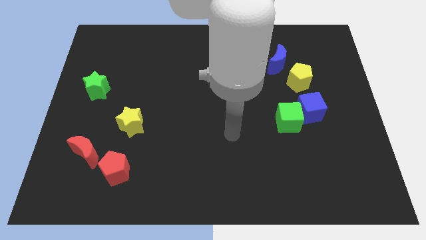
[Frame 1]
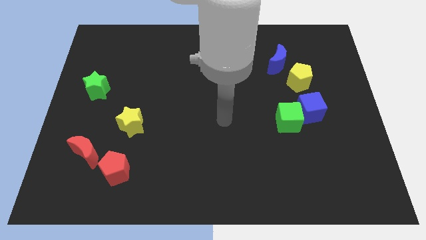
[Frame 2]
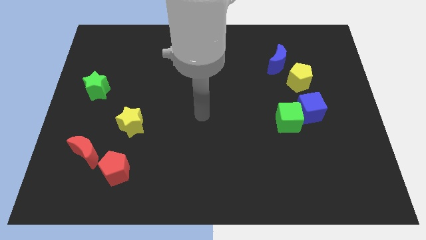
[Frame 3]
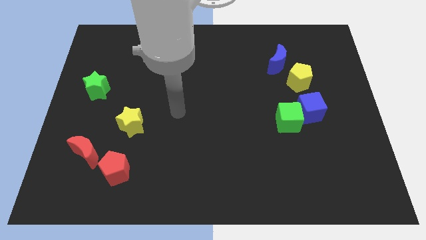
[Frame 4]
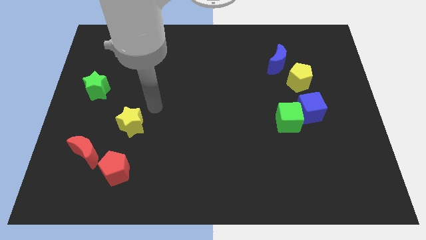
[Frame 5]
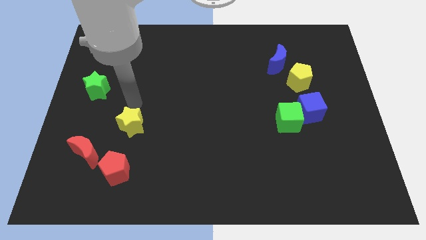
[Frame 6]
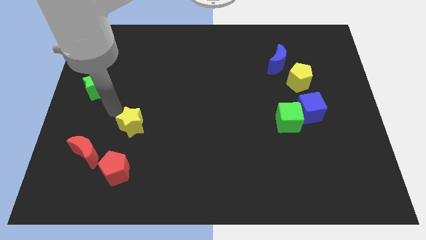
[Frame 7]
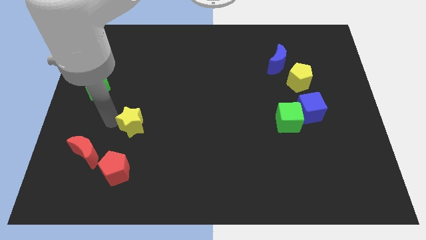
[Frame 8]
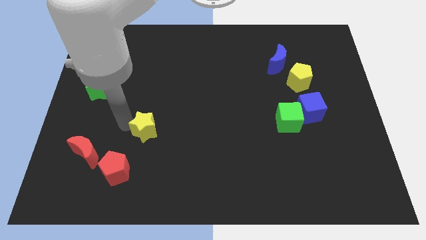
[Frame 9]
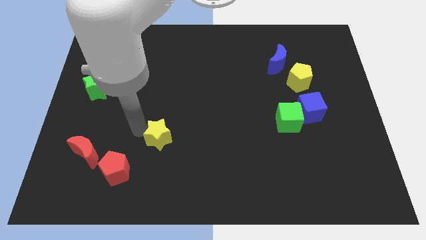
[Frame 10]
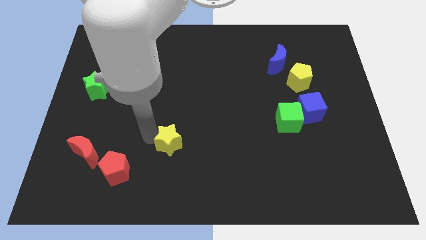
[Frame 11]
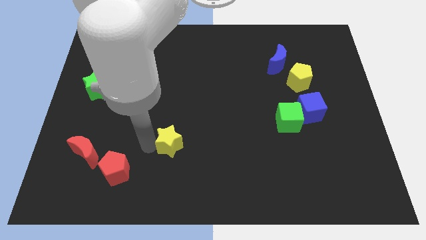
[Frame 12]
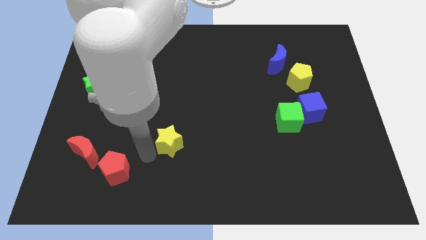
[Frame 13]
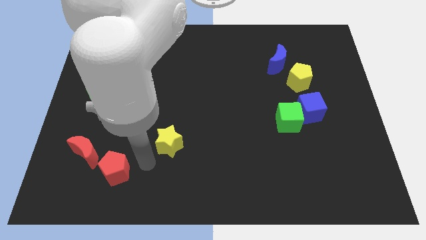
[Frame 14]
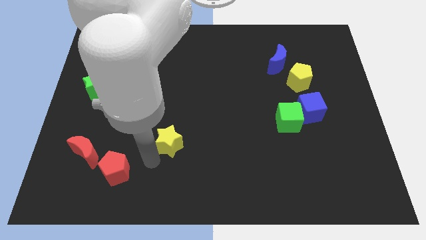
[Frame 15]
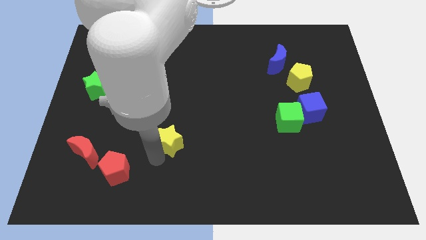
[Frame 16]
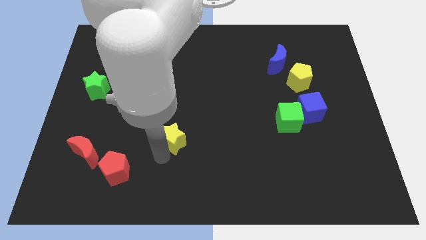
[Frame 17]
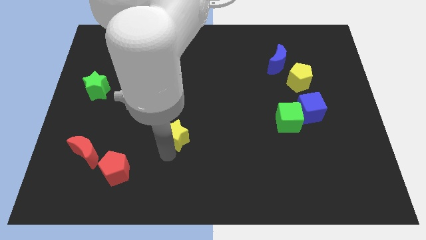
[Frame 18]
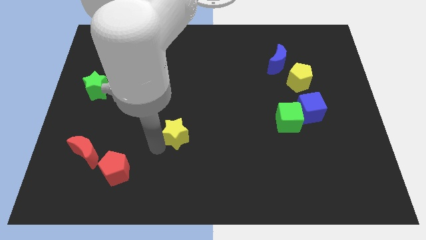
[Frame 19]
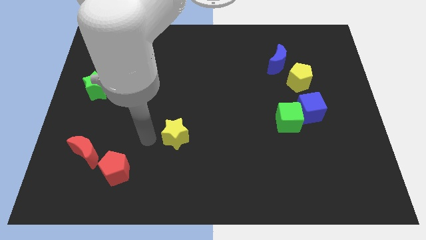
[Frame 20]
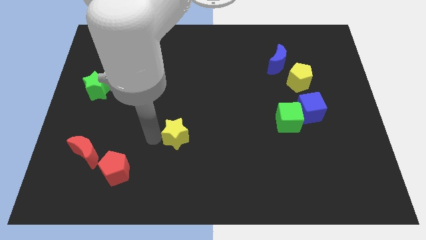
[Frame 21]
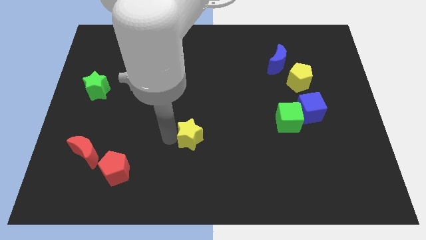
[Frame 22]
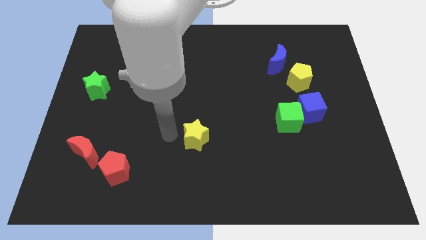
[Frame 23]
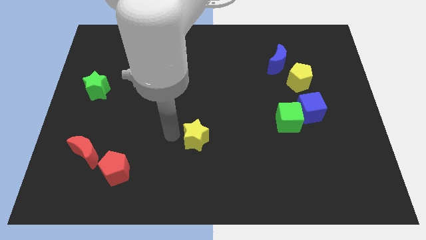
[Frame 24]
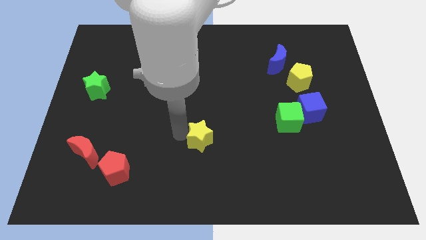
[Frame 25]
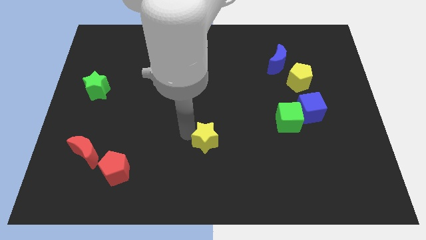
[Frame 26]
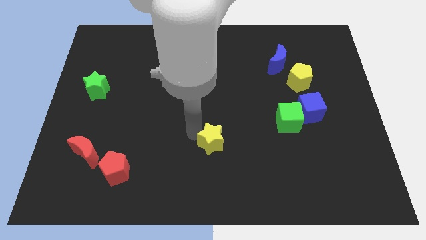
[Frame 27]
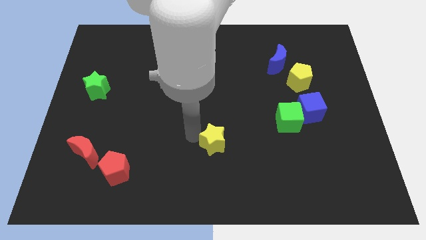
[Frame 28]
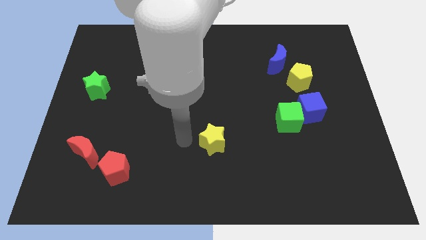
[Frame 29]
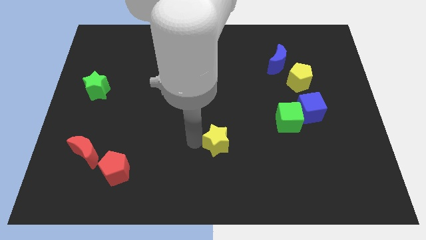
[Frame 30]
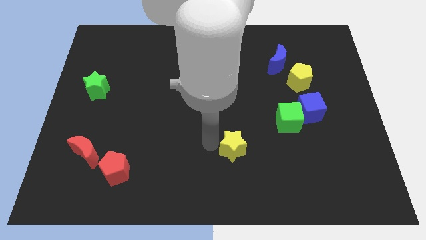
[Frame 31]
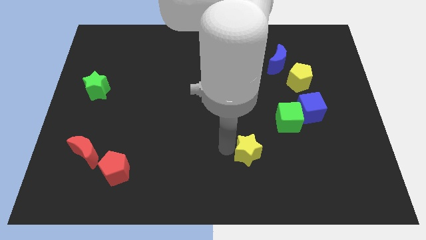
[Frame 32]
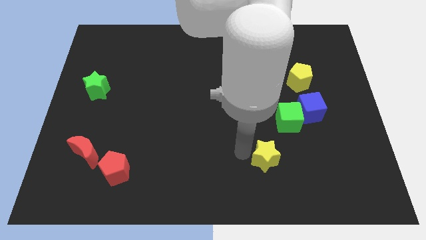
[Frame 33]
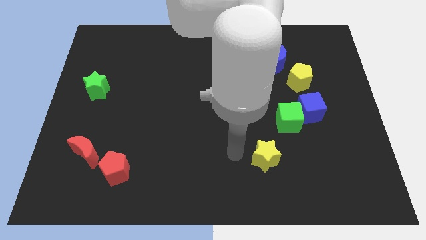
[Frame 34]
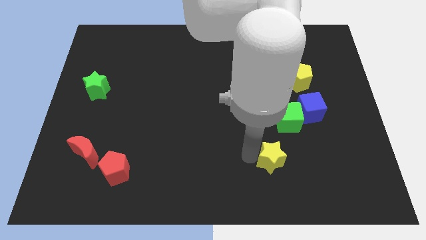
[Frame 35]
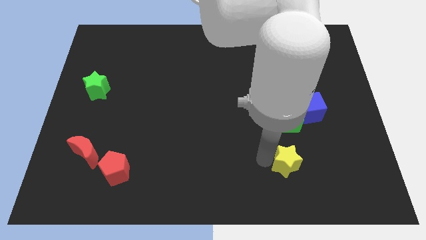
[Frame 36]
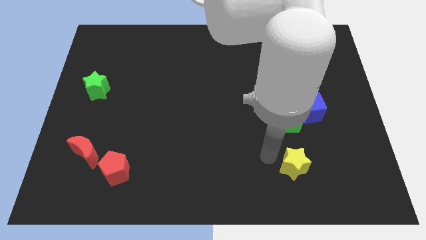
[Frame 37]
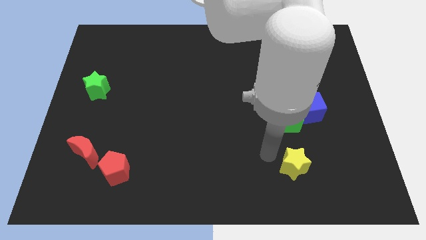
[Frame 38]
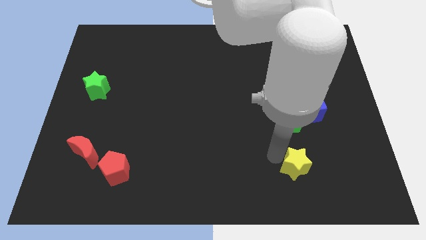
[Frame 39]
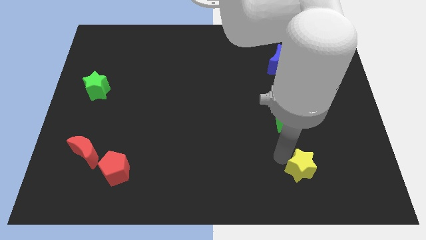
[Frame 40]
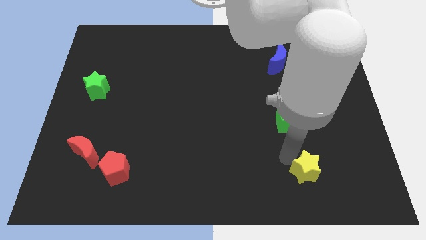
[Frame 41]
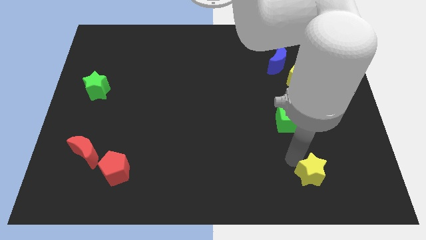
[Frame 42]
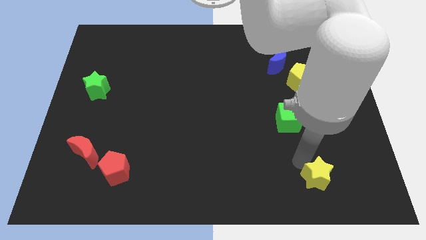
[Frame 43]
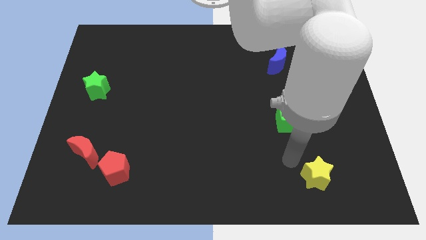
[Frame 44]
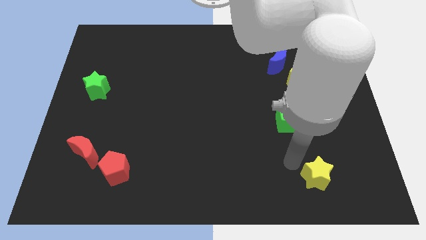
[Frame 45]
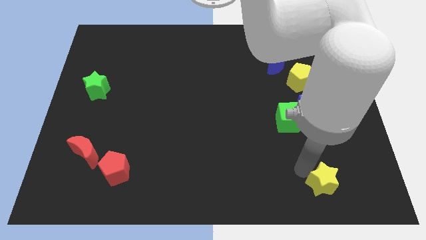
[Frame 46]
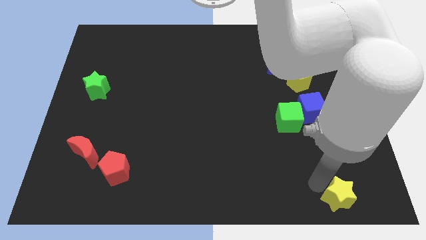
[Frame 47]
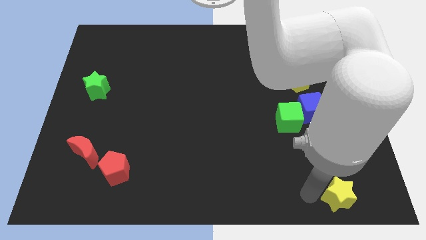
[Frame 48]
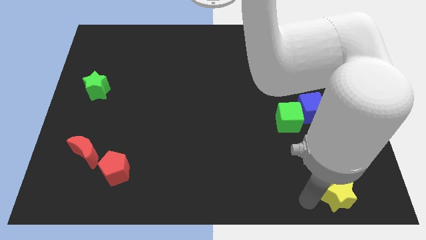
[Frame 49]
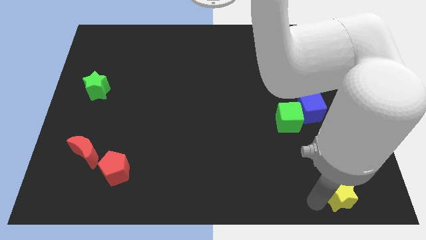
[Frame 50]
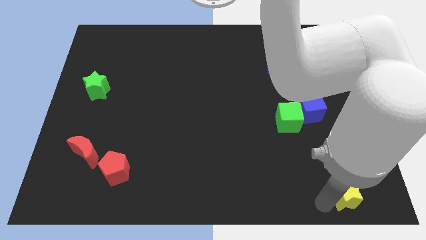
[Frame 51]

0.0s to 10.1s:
put the yellow star to the bottom right
